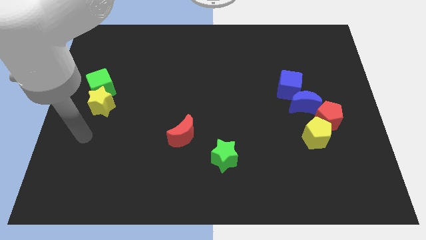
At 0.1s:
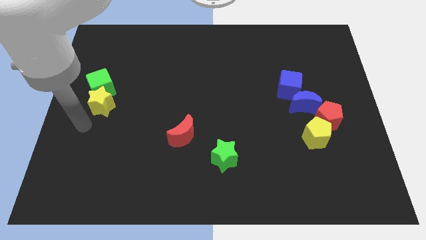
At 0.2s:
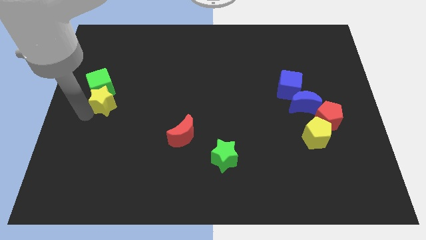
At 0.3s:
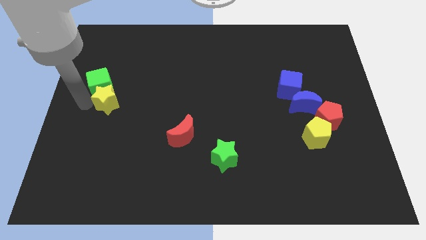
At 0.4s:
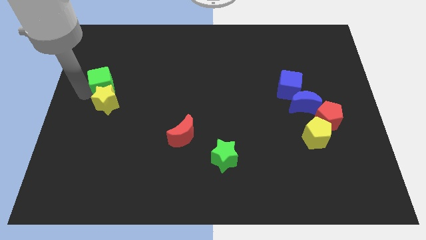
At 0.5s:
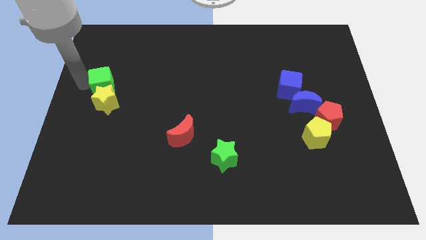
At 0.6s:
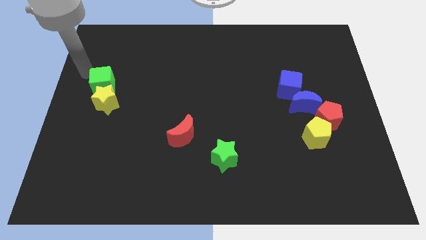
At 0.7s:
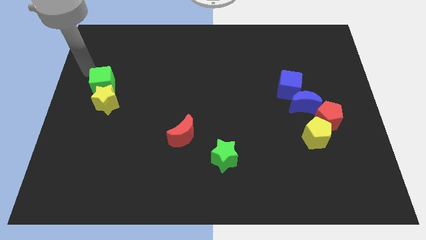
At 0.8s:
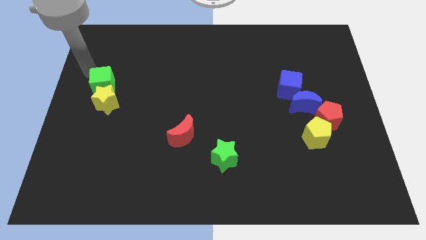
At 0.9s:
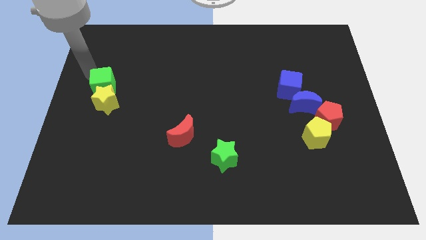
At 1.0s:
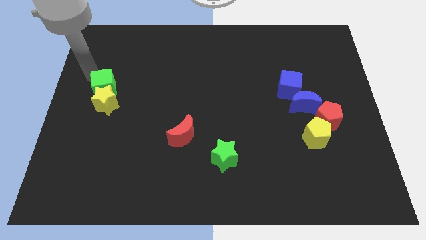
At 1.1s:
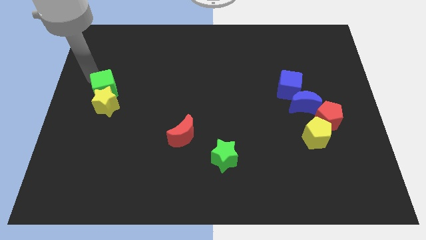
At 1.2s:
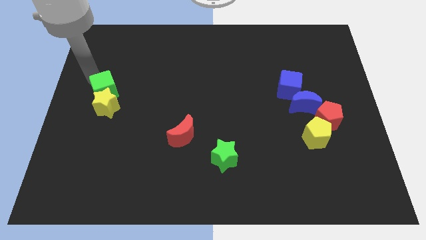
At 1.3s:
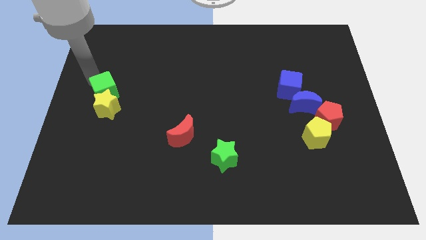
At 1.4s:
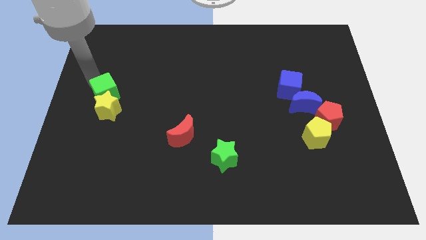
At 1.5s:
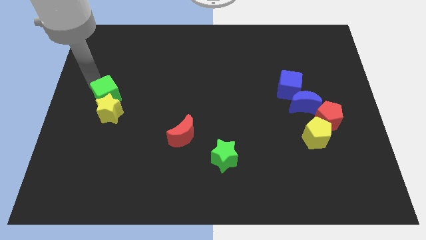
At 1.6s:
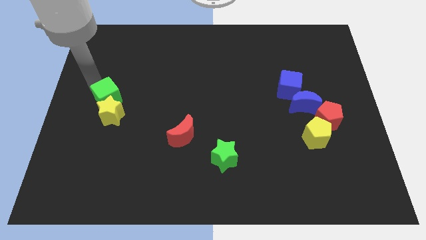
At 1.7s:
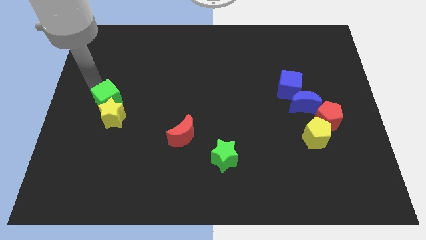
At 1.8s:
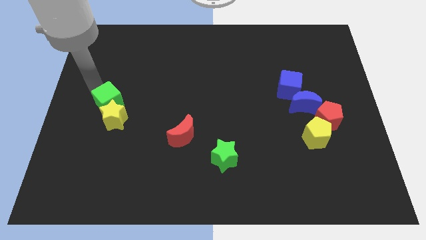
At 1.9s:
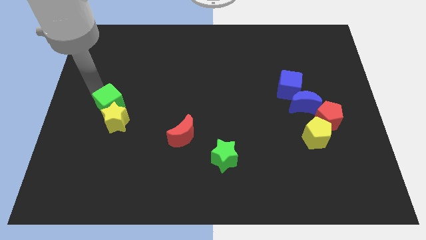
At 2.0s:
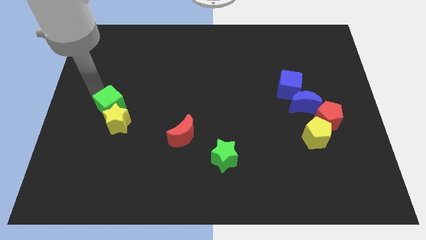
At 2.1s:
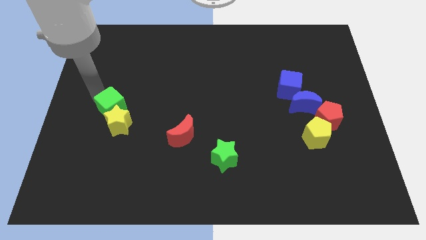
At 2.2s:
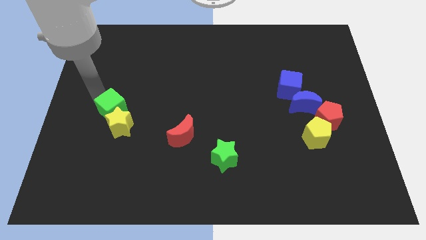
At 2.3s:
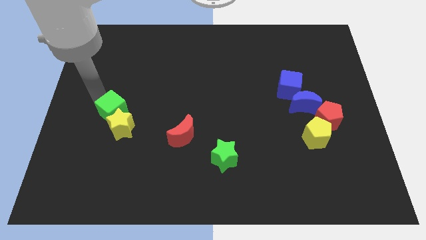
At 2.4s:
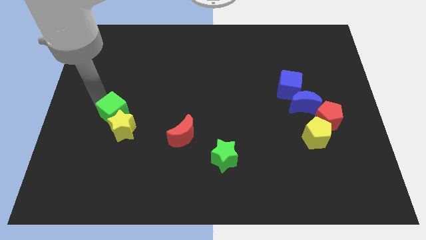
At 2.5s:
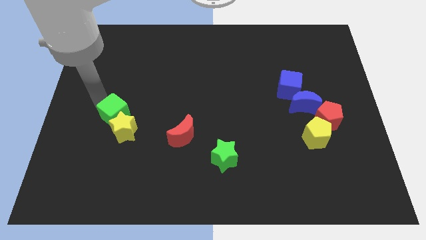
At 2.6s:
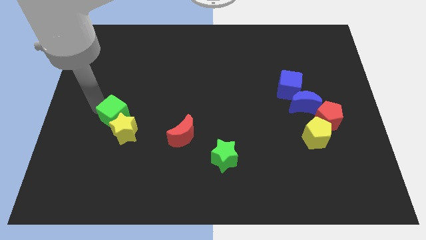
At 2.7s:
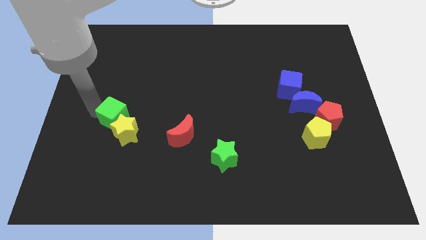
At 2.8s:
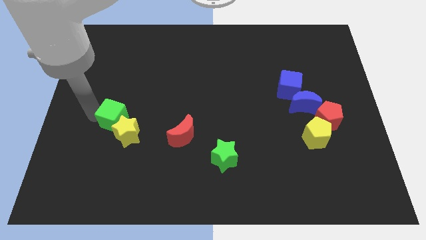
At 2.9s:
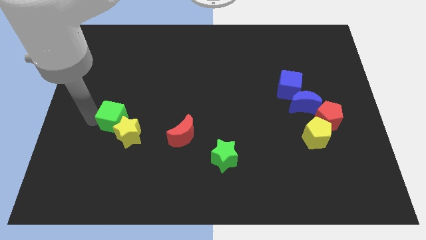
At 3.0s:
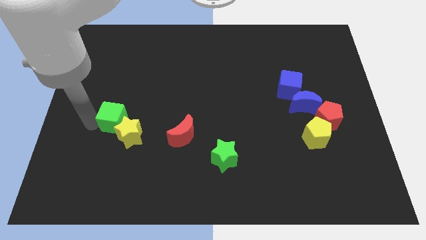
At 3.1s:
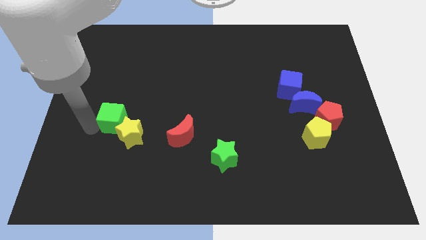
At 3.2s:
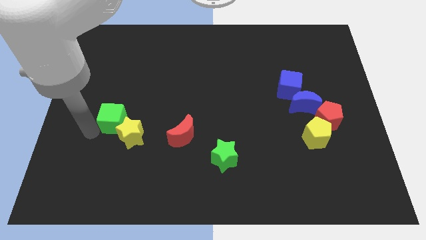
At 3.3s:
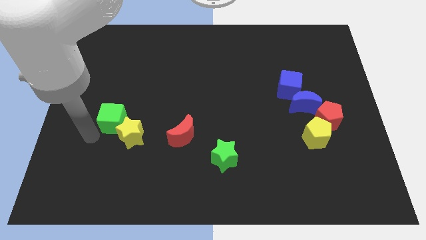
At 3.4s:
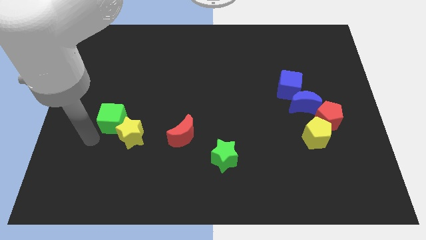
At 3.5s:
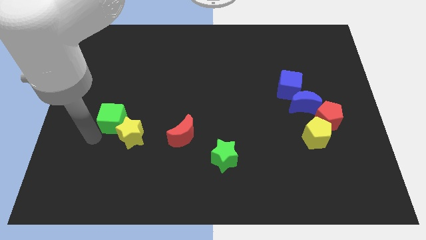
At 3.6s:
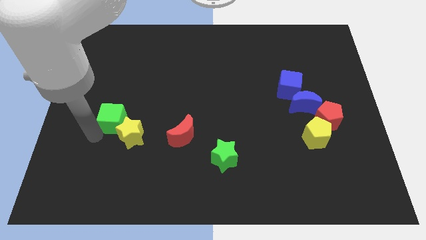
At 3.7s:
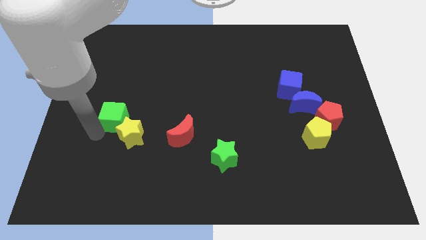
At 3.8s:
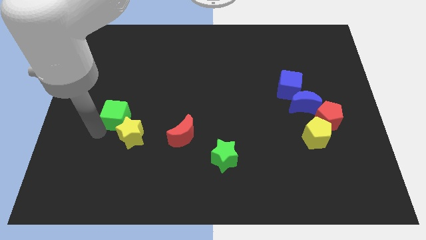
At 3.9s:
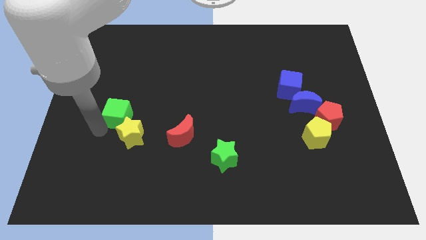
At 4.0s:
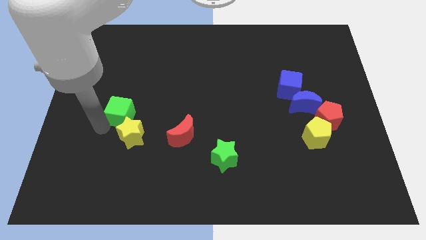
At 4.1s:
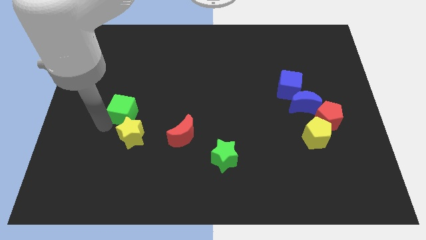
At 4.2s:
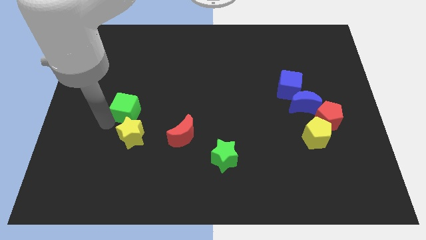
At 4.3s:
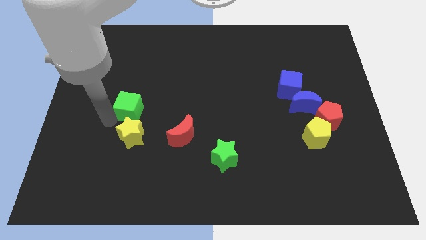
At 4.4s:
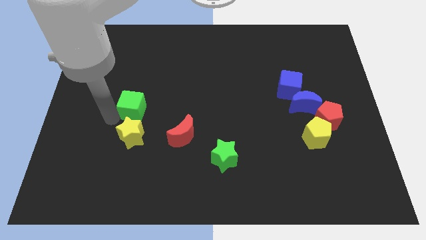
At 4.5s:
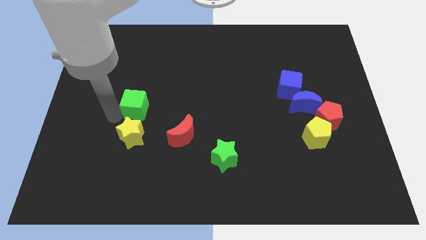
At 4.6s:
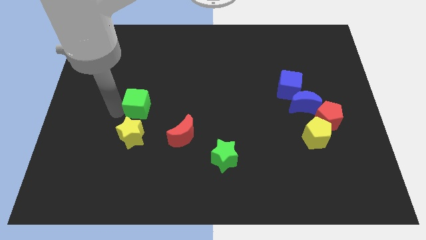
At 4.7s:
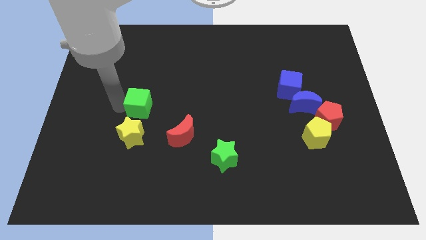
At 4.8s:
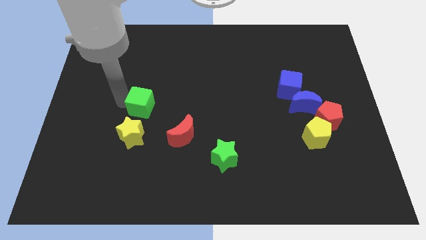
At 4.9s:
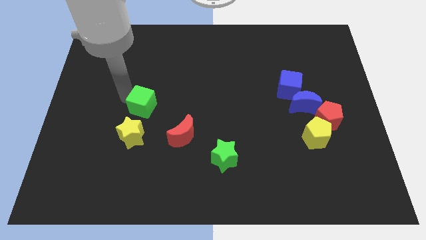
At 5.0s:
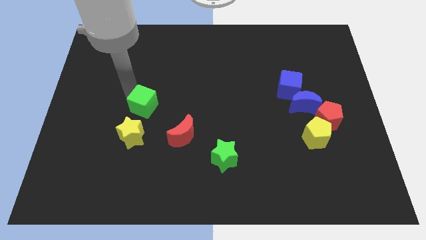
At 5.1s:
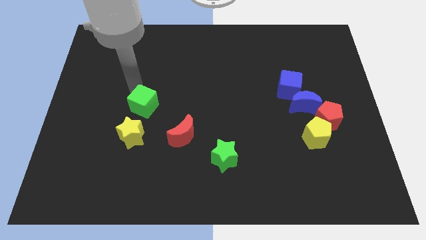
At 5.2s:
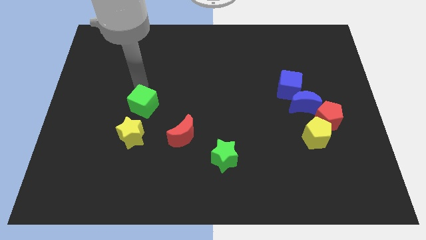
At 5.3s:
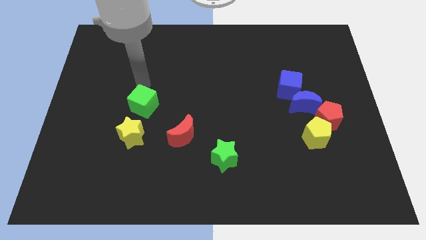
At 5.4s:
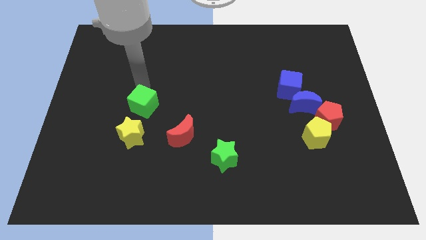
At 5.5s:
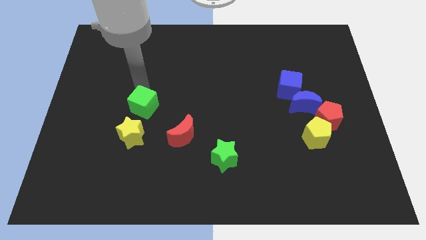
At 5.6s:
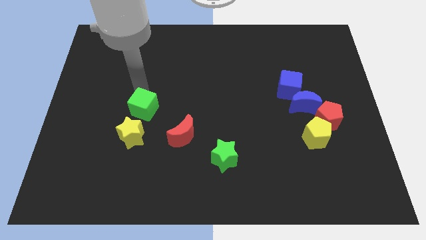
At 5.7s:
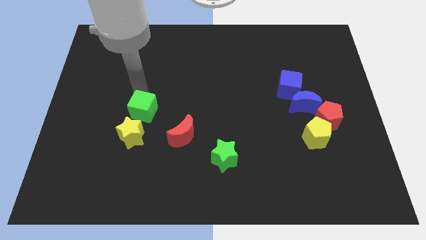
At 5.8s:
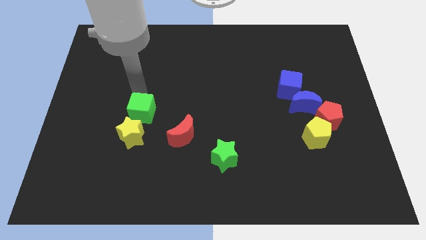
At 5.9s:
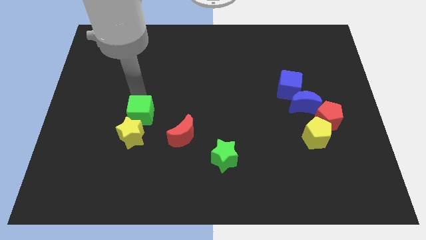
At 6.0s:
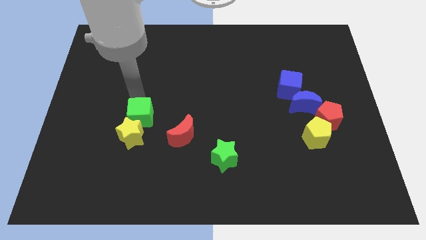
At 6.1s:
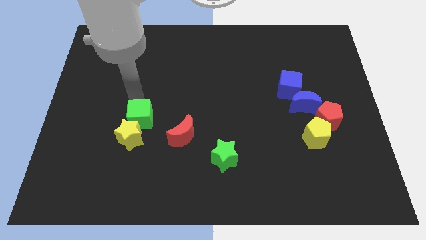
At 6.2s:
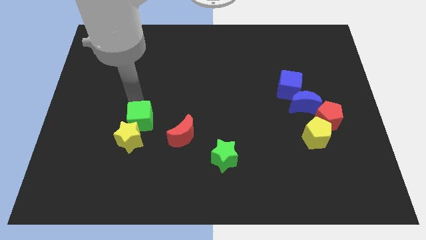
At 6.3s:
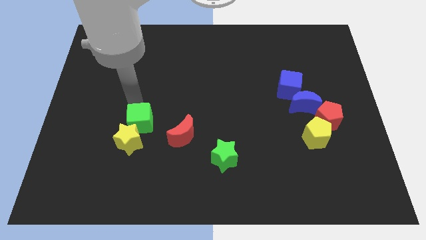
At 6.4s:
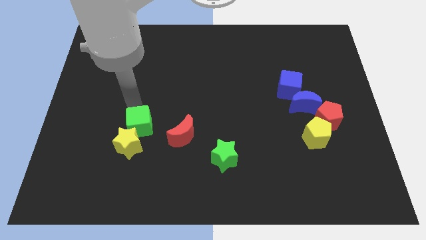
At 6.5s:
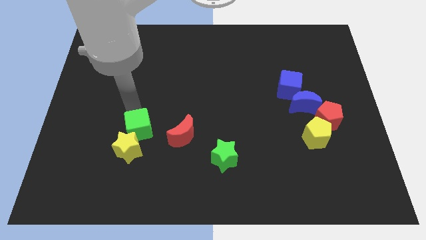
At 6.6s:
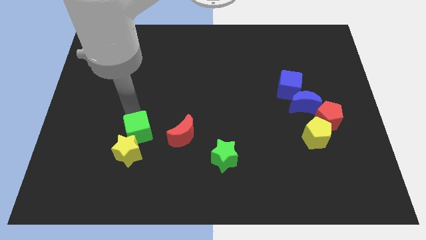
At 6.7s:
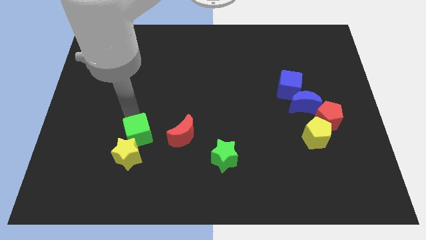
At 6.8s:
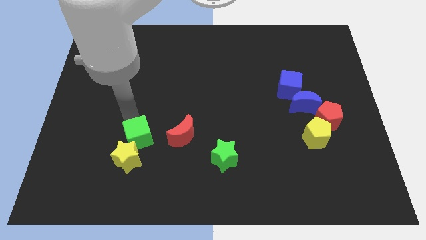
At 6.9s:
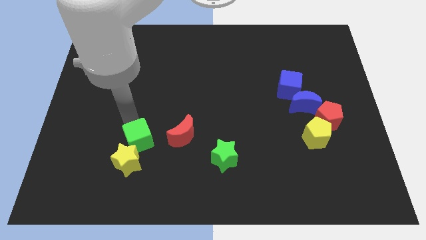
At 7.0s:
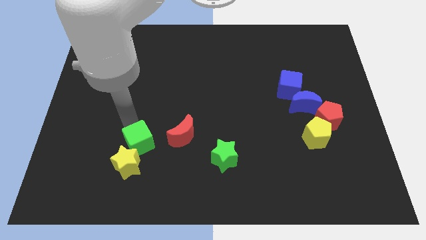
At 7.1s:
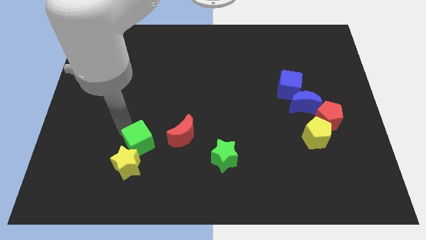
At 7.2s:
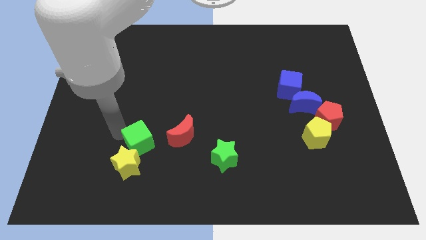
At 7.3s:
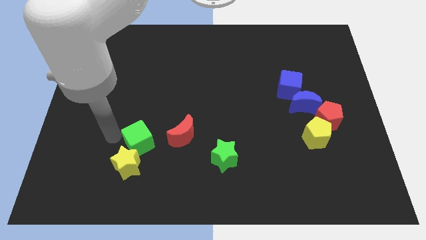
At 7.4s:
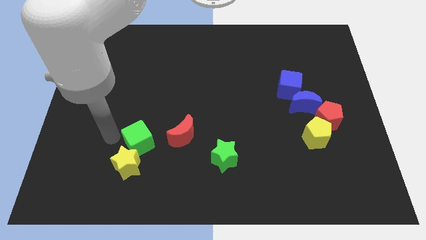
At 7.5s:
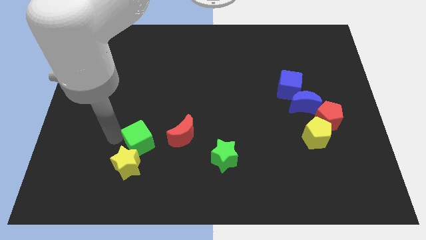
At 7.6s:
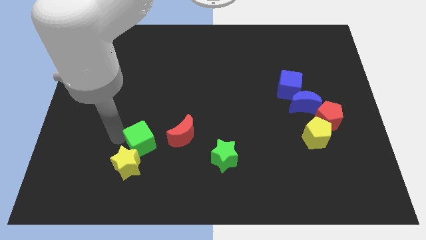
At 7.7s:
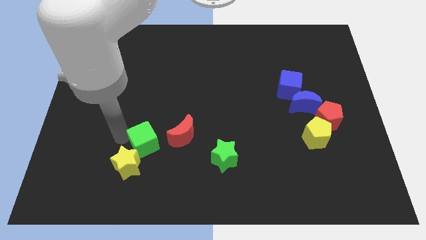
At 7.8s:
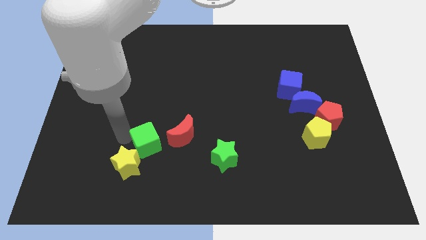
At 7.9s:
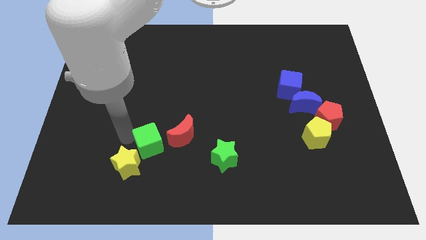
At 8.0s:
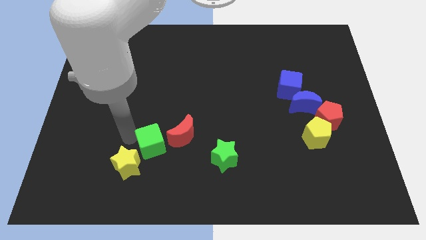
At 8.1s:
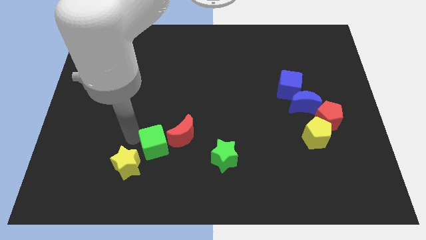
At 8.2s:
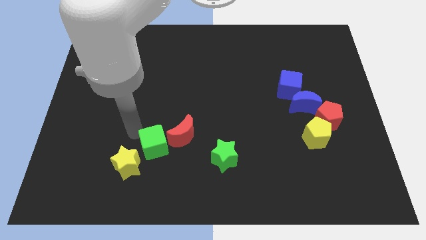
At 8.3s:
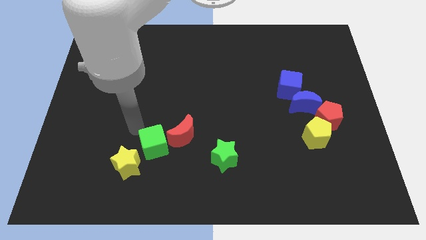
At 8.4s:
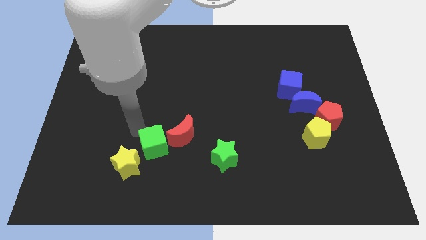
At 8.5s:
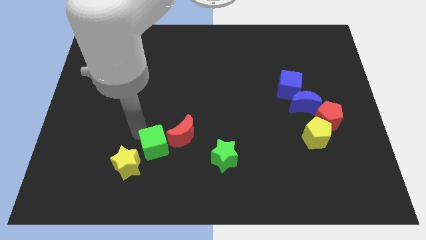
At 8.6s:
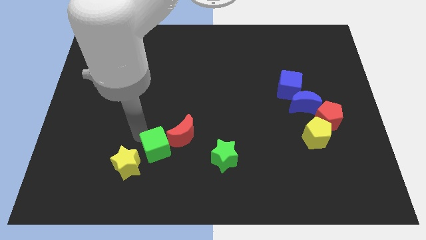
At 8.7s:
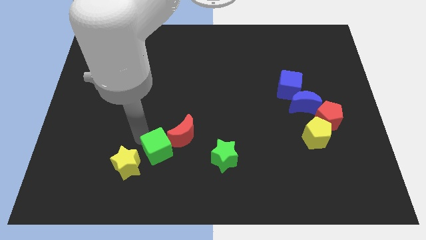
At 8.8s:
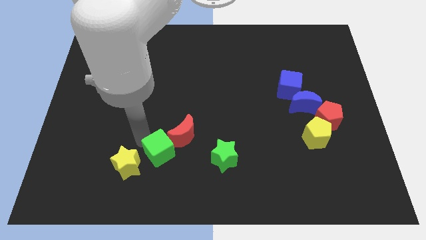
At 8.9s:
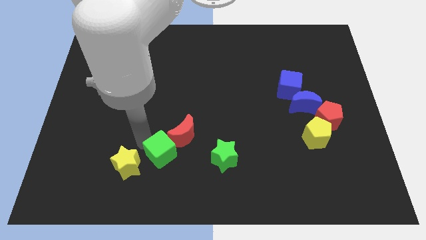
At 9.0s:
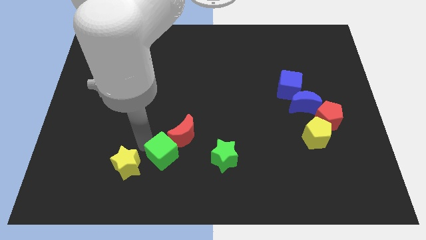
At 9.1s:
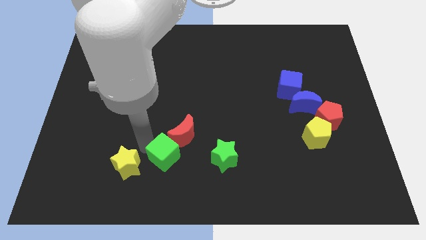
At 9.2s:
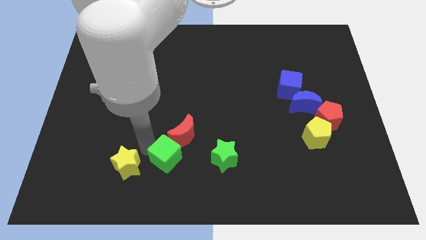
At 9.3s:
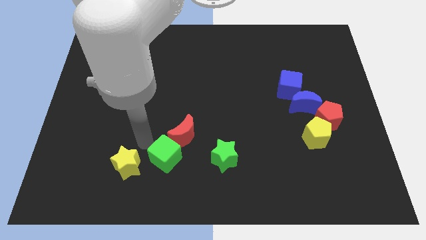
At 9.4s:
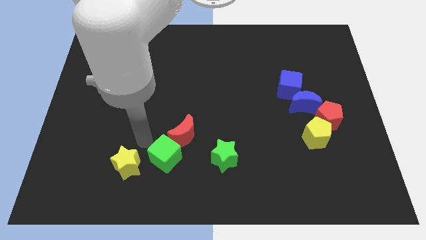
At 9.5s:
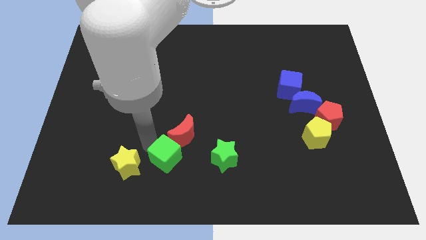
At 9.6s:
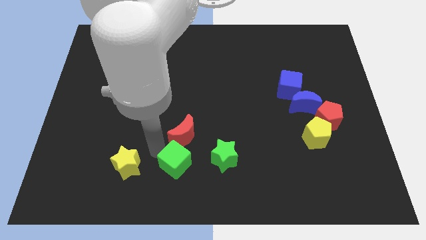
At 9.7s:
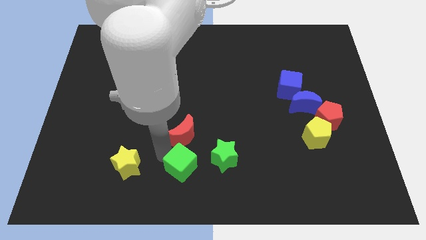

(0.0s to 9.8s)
slide the green cube to the bottom left of the green star
